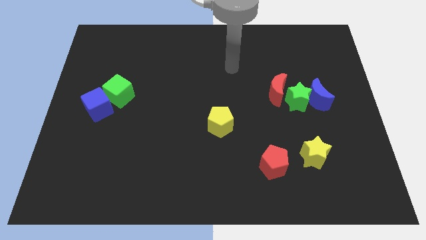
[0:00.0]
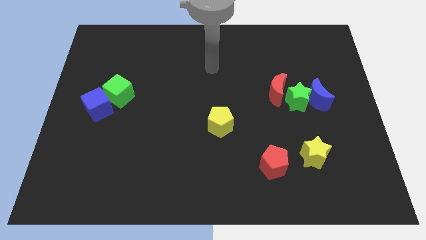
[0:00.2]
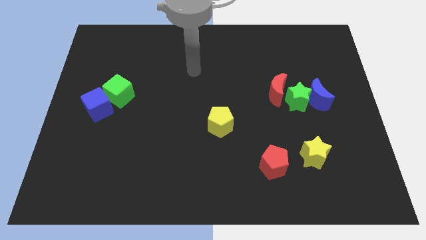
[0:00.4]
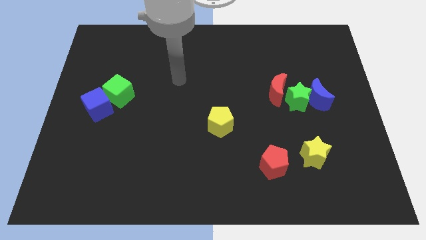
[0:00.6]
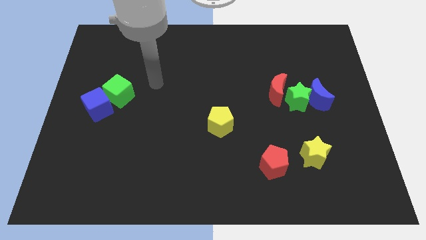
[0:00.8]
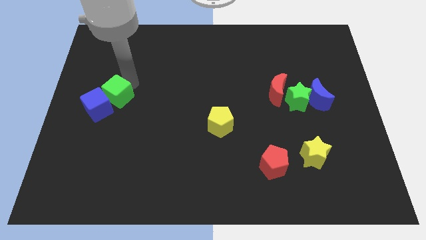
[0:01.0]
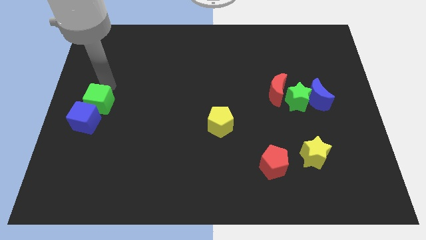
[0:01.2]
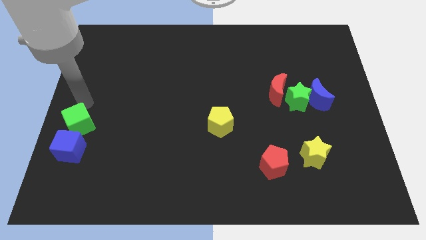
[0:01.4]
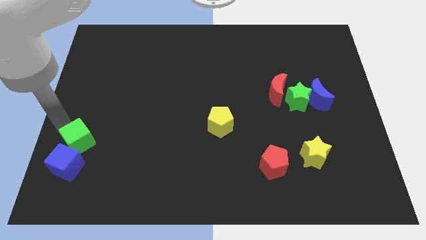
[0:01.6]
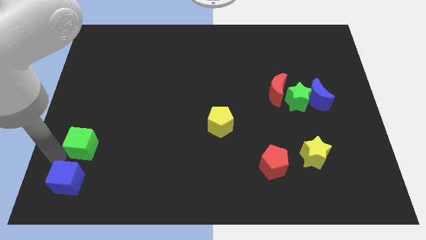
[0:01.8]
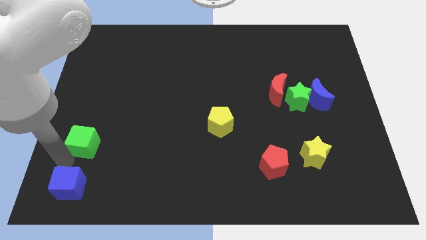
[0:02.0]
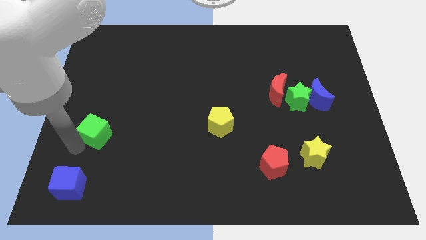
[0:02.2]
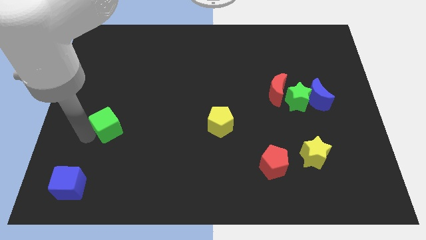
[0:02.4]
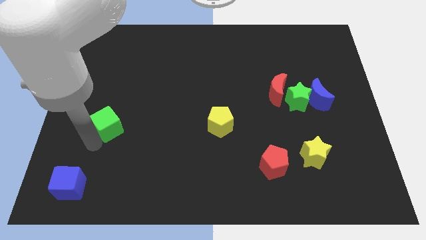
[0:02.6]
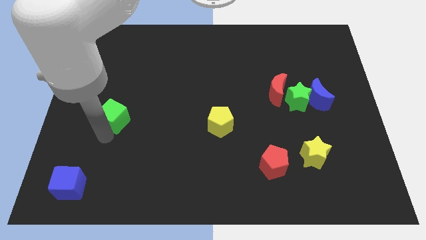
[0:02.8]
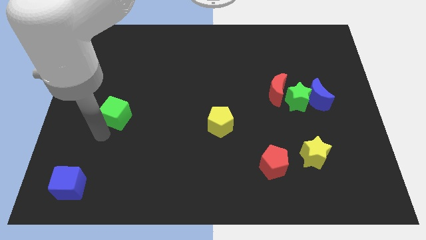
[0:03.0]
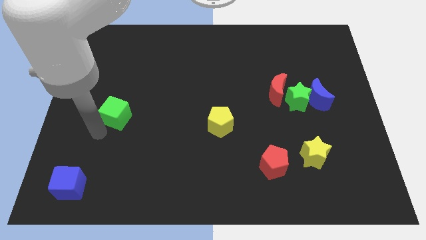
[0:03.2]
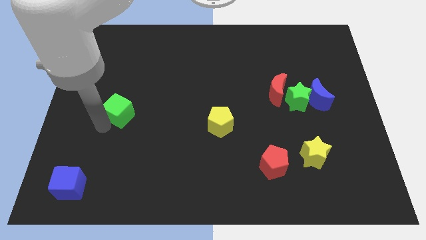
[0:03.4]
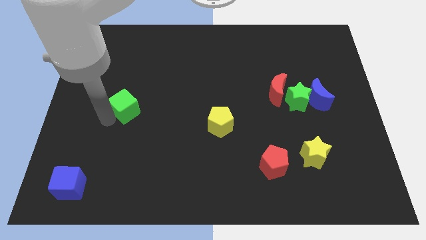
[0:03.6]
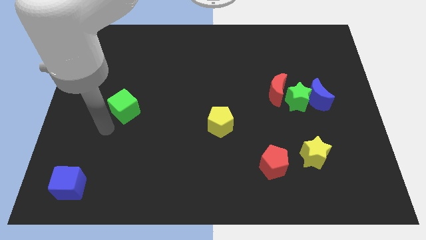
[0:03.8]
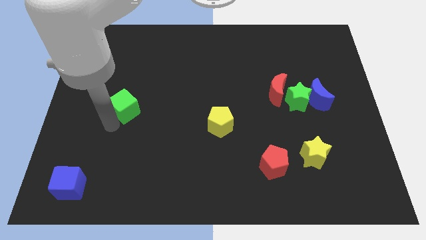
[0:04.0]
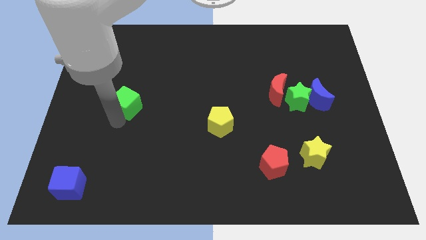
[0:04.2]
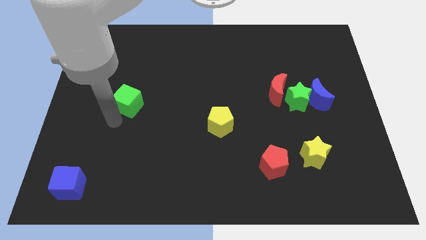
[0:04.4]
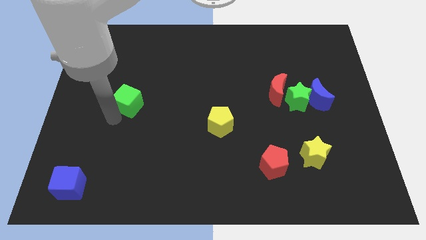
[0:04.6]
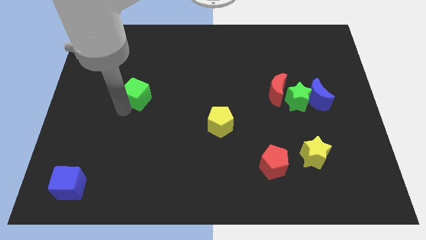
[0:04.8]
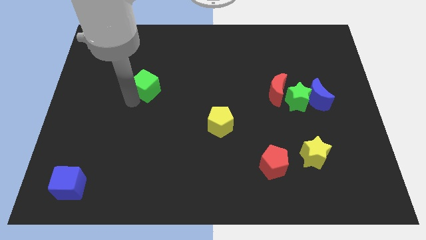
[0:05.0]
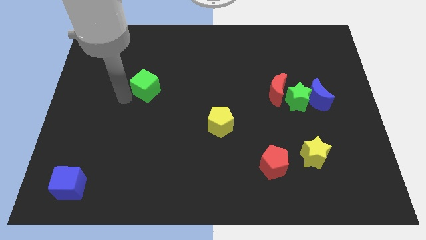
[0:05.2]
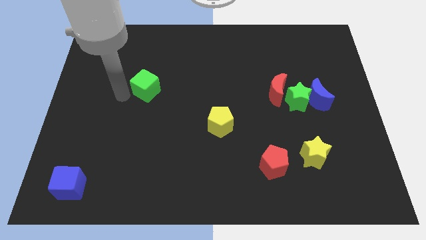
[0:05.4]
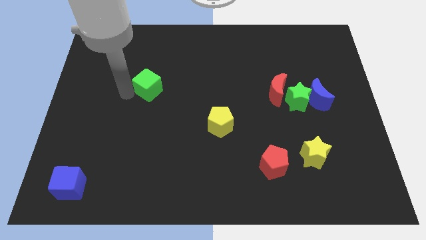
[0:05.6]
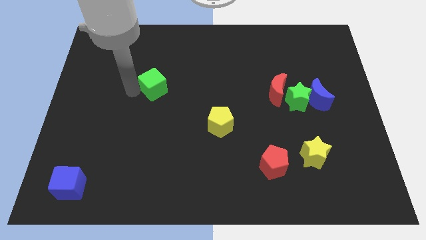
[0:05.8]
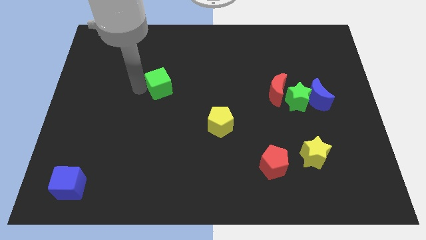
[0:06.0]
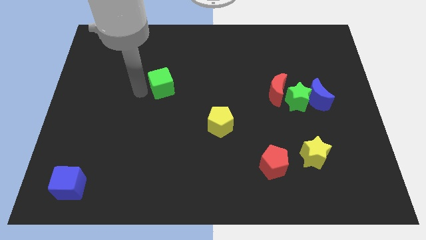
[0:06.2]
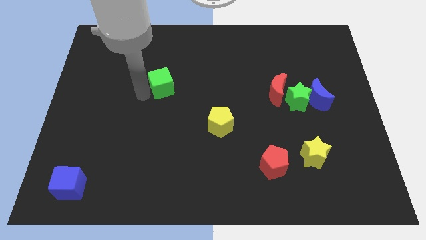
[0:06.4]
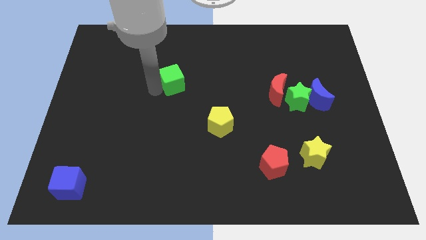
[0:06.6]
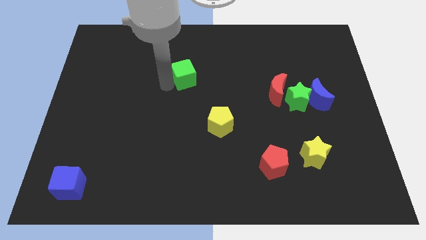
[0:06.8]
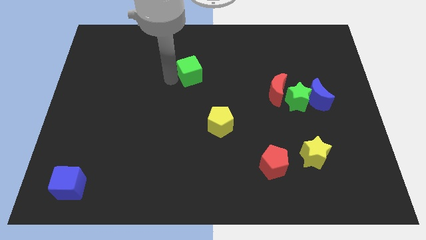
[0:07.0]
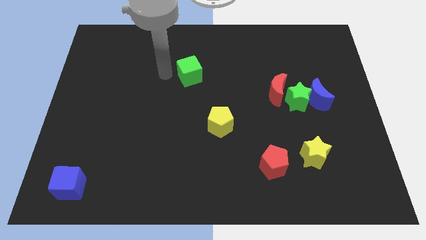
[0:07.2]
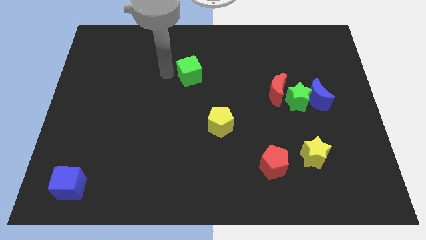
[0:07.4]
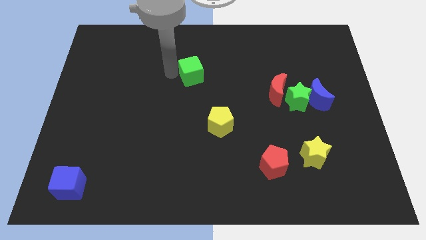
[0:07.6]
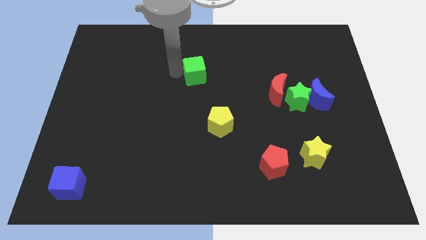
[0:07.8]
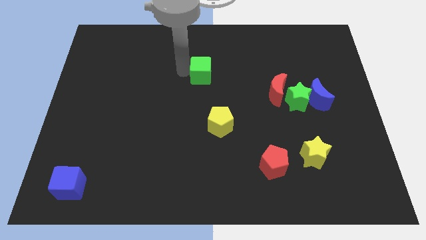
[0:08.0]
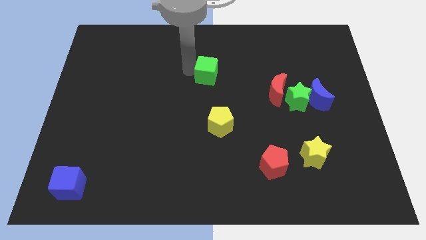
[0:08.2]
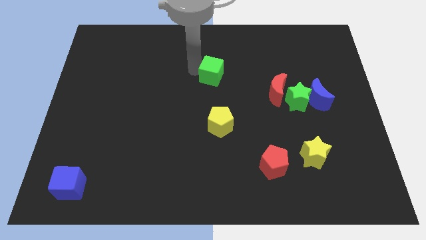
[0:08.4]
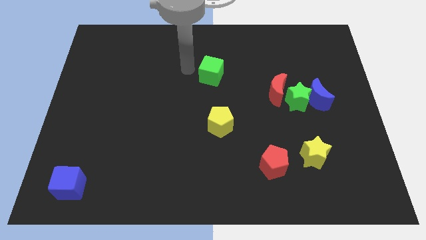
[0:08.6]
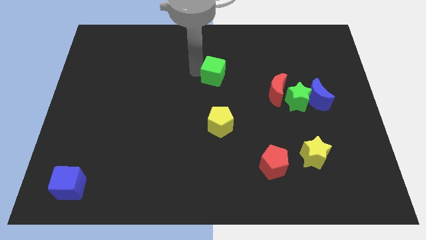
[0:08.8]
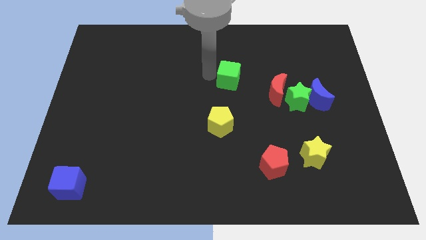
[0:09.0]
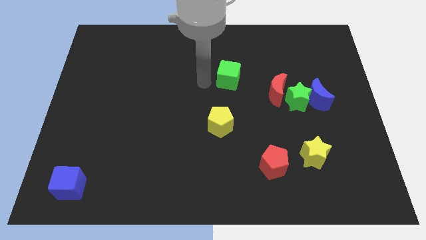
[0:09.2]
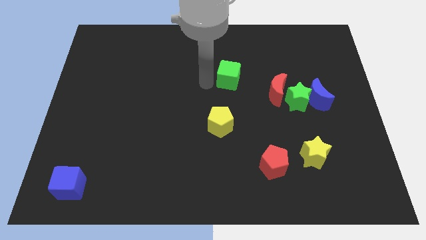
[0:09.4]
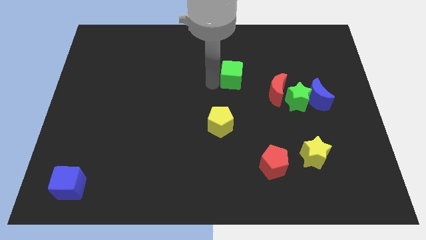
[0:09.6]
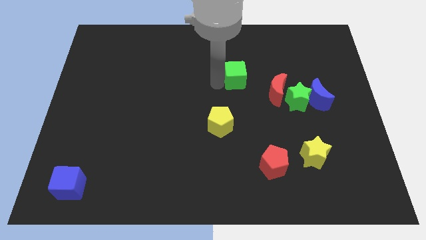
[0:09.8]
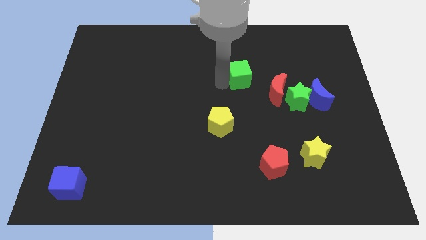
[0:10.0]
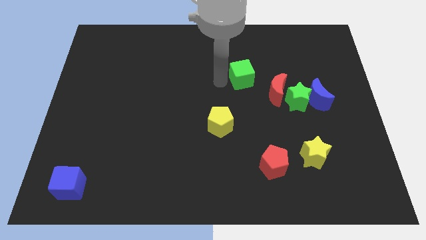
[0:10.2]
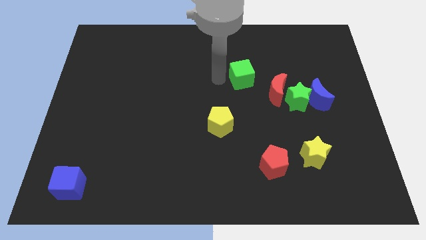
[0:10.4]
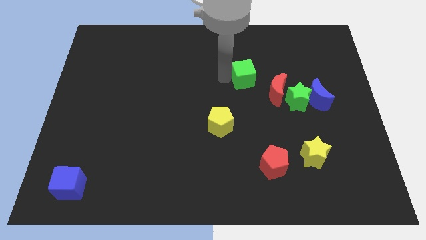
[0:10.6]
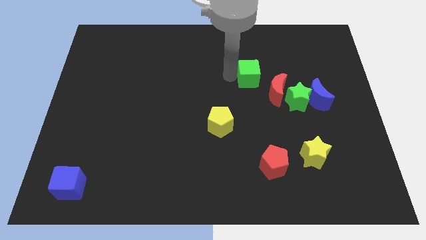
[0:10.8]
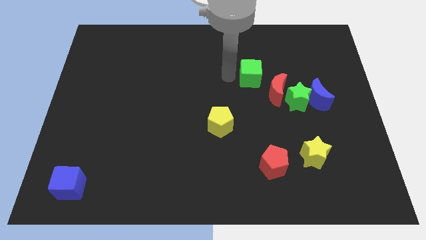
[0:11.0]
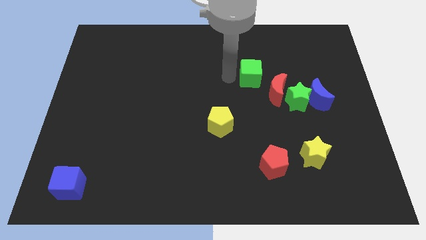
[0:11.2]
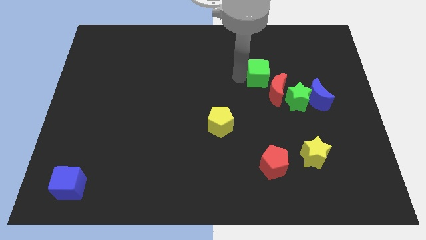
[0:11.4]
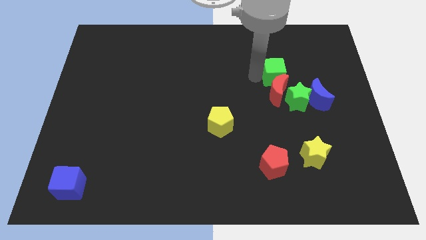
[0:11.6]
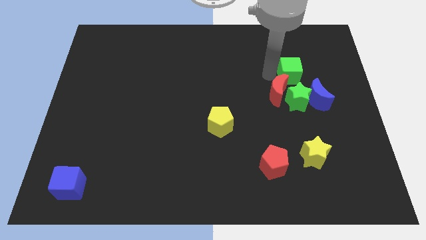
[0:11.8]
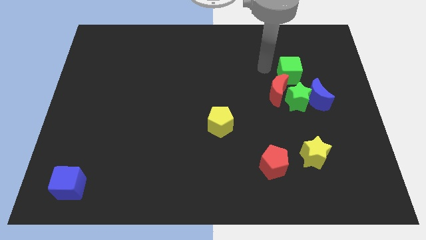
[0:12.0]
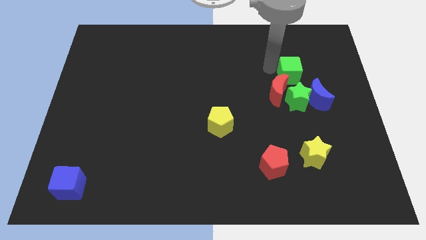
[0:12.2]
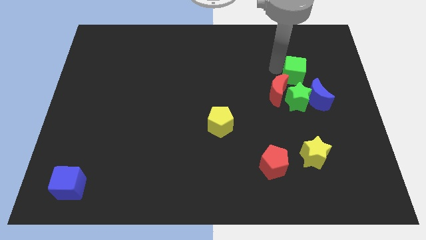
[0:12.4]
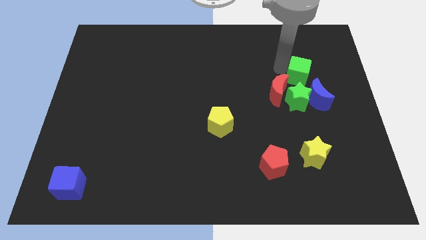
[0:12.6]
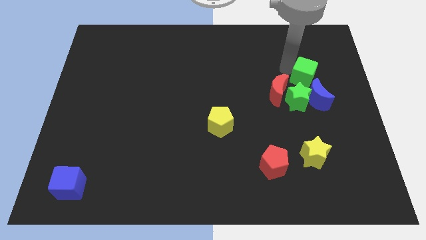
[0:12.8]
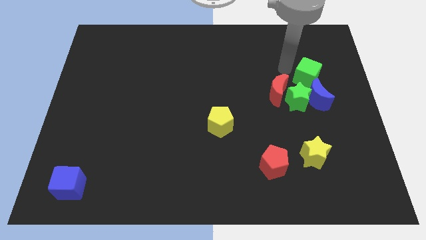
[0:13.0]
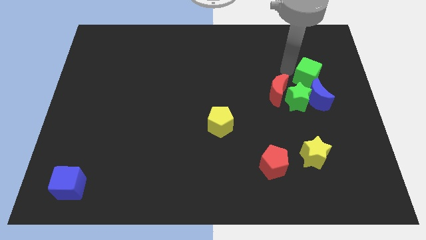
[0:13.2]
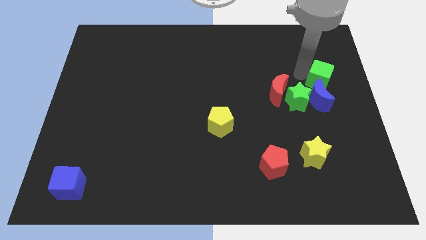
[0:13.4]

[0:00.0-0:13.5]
push the green cube to the center right
